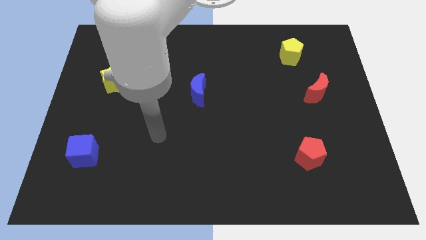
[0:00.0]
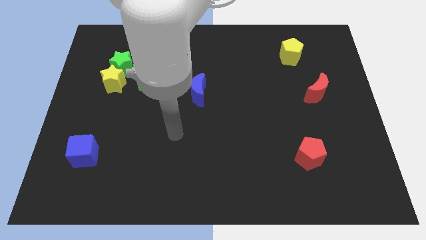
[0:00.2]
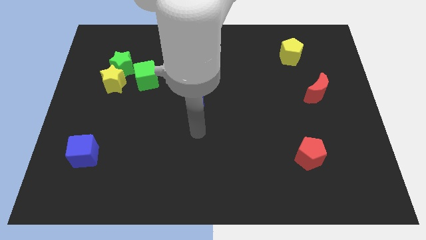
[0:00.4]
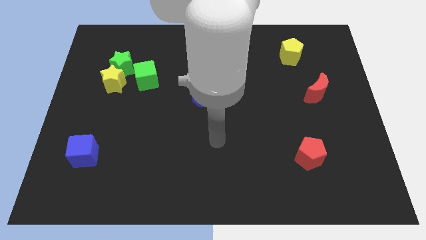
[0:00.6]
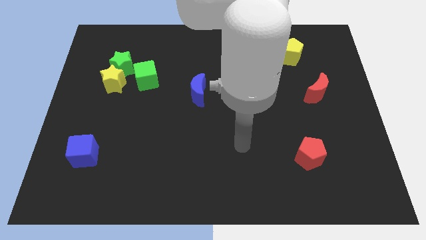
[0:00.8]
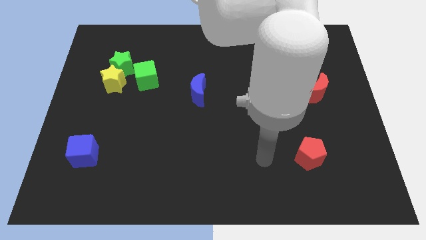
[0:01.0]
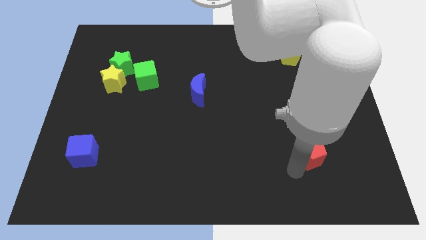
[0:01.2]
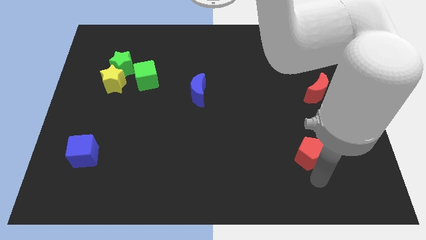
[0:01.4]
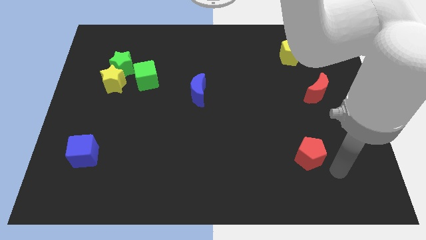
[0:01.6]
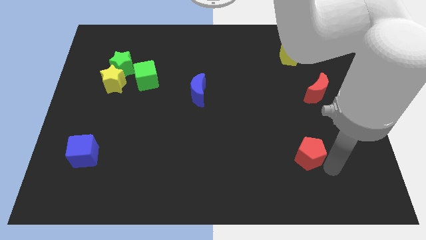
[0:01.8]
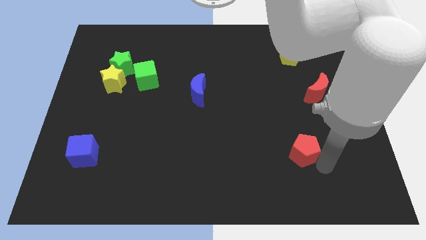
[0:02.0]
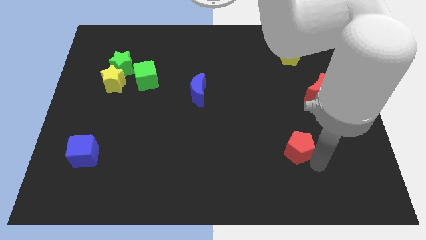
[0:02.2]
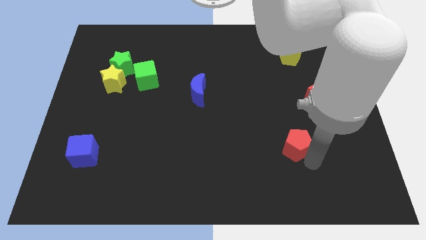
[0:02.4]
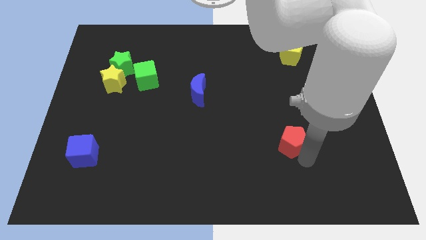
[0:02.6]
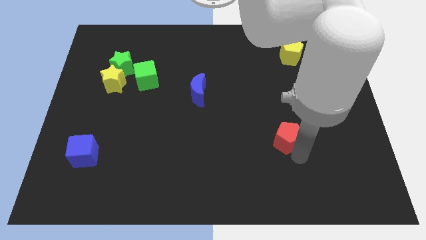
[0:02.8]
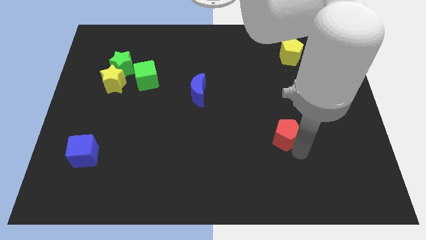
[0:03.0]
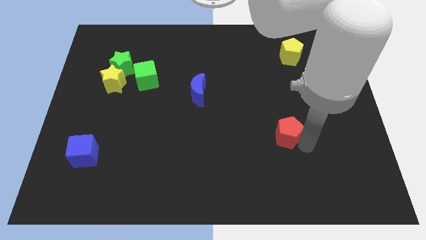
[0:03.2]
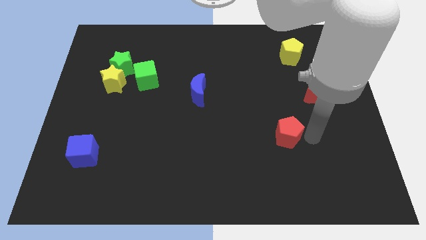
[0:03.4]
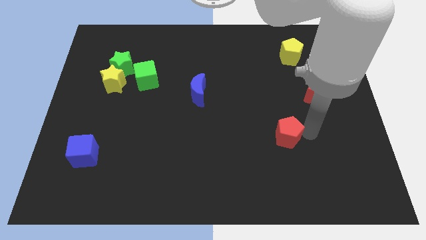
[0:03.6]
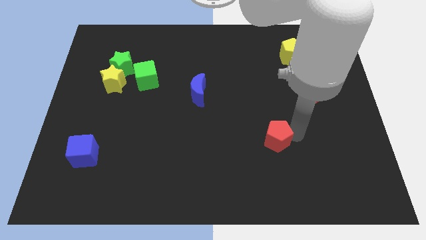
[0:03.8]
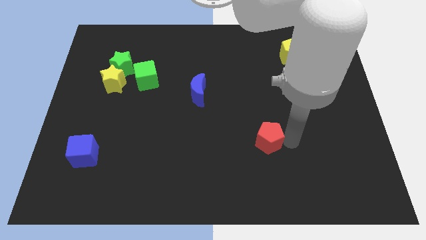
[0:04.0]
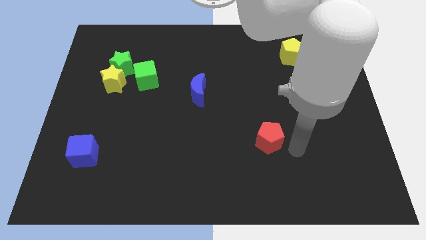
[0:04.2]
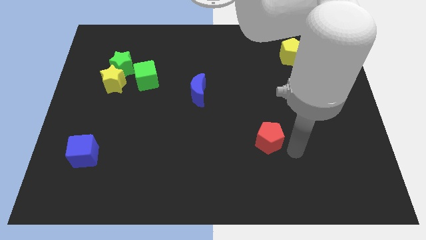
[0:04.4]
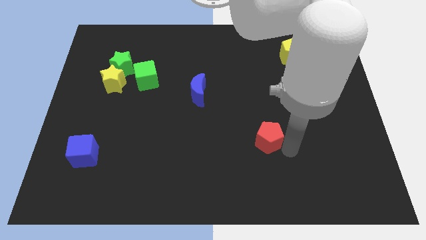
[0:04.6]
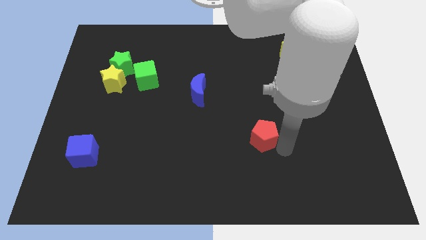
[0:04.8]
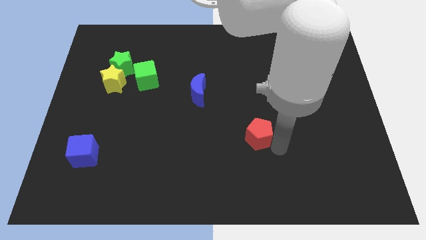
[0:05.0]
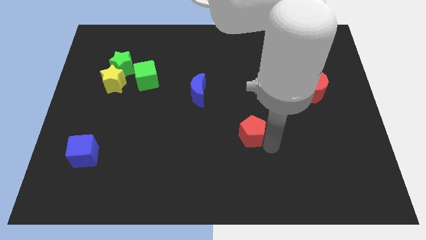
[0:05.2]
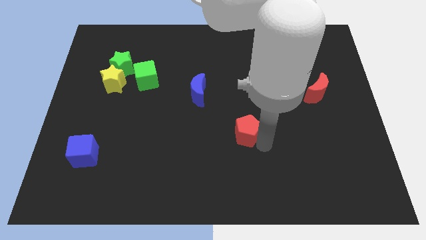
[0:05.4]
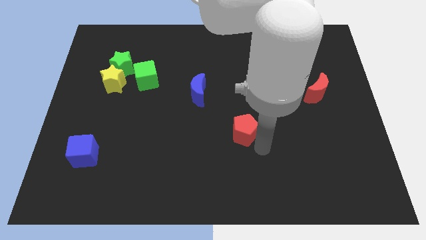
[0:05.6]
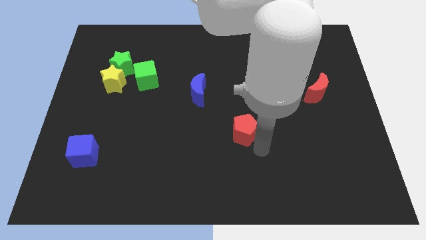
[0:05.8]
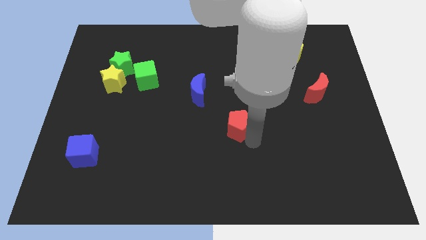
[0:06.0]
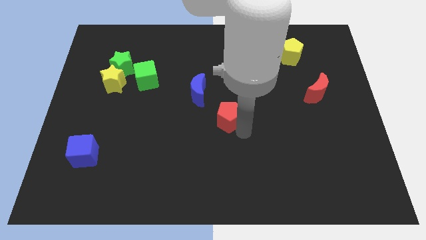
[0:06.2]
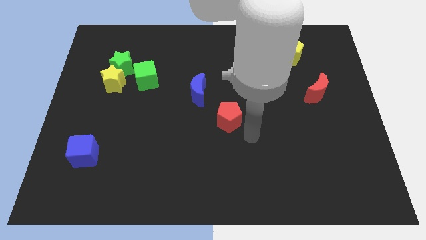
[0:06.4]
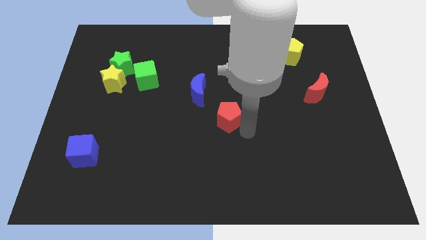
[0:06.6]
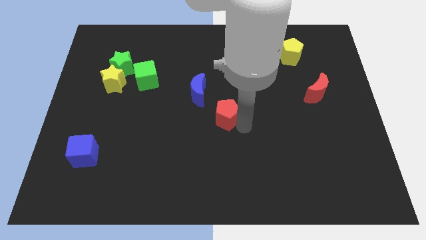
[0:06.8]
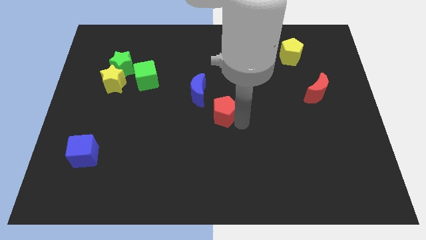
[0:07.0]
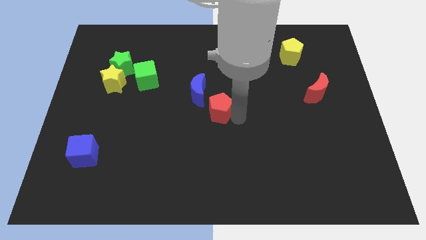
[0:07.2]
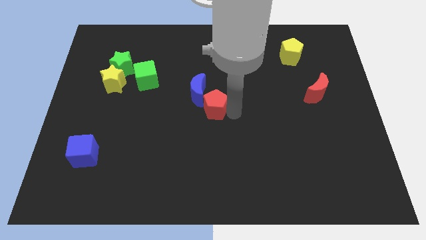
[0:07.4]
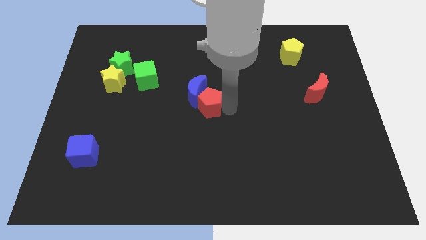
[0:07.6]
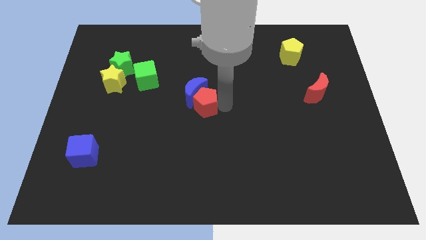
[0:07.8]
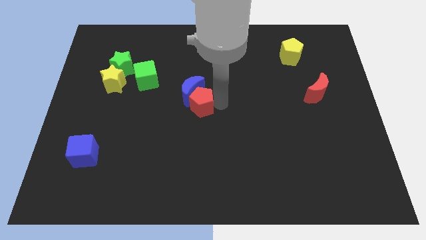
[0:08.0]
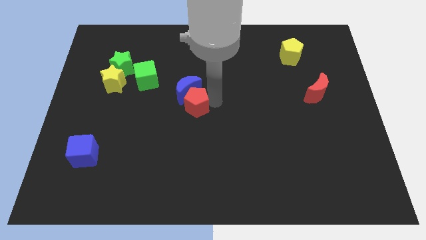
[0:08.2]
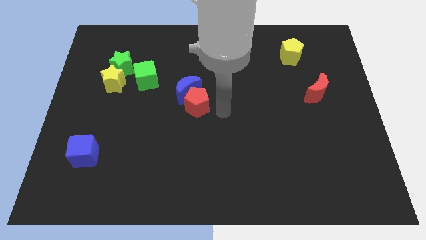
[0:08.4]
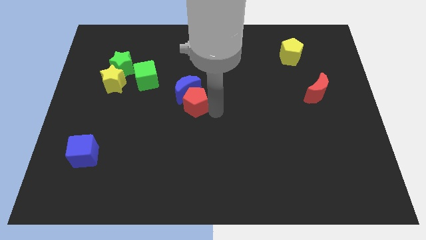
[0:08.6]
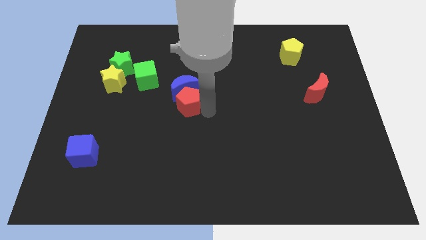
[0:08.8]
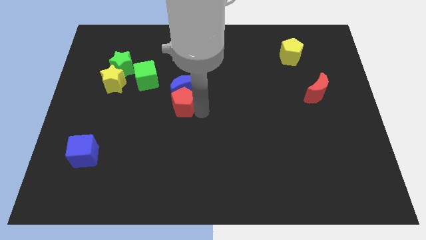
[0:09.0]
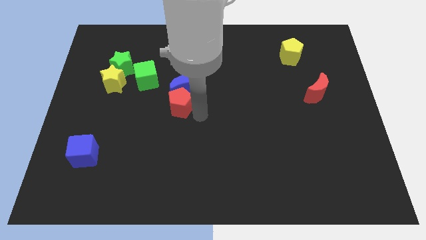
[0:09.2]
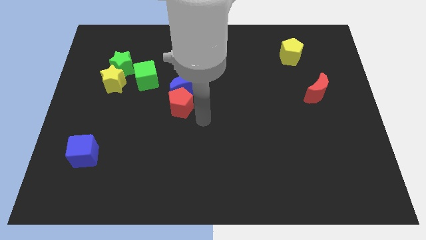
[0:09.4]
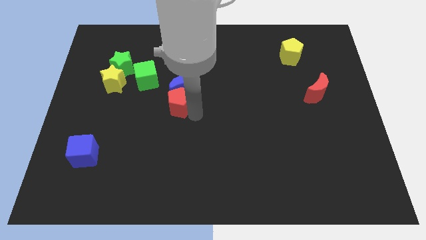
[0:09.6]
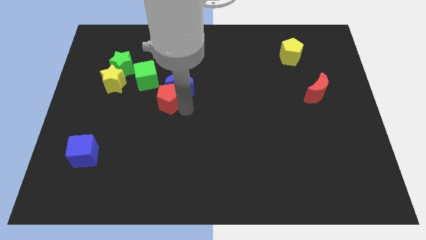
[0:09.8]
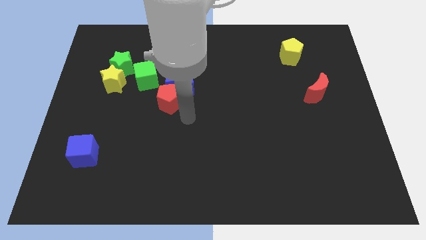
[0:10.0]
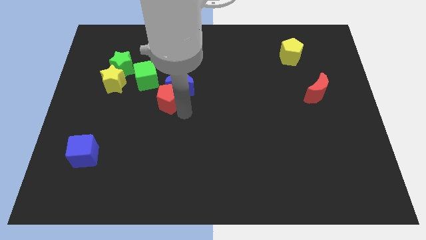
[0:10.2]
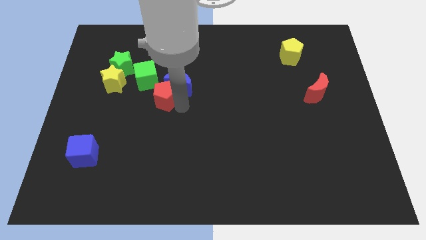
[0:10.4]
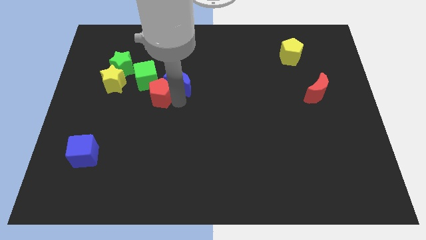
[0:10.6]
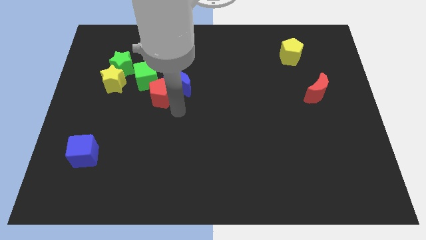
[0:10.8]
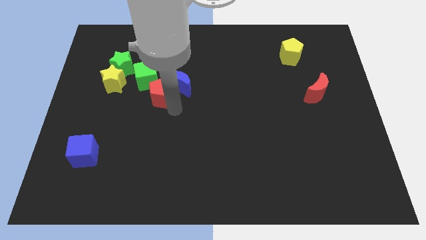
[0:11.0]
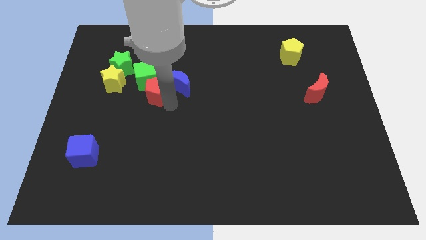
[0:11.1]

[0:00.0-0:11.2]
slide the red pentagon close to the green cube
